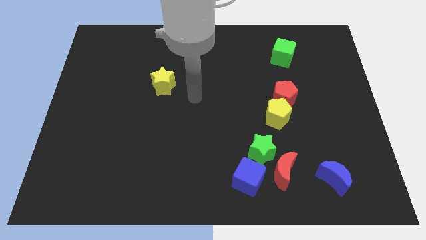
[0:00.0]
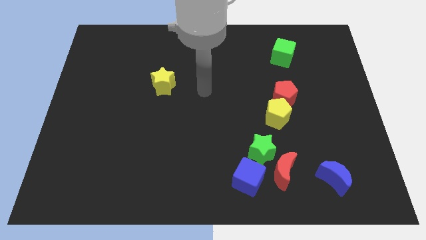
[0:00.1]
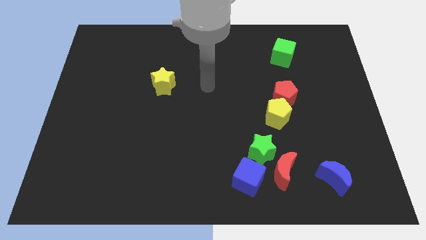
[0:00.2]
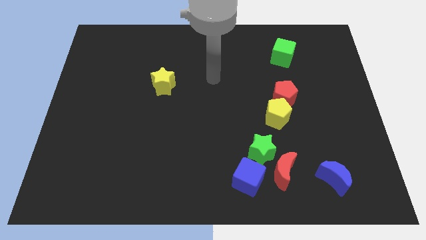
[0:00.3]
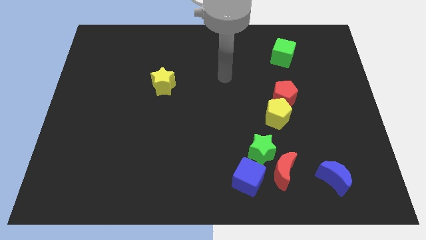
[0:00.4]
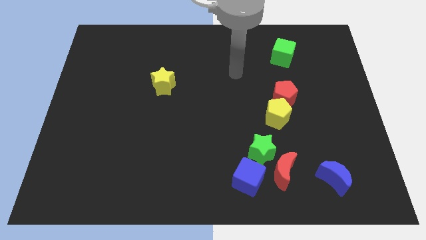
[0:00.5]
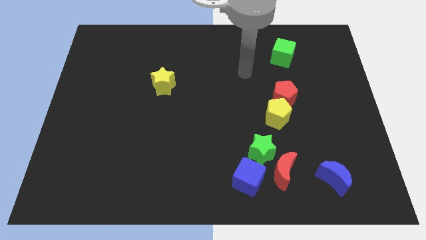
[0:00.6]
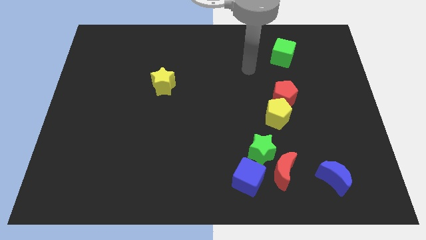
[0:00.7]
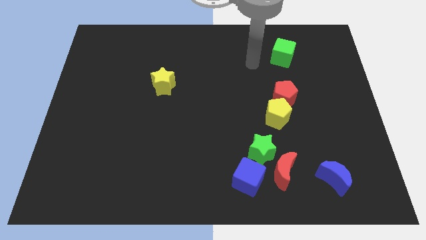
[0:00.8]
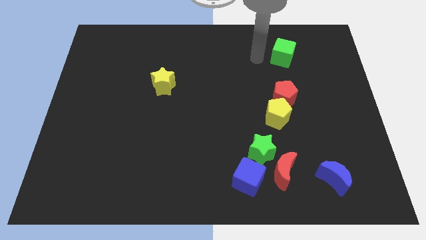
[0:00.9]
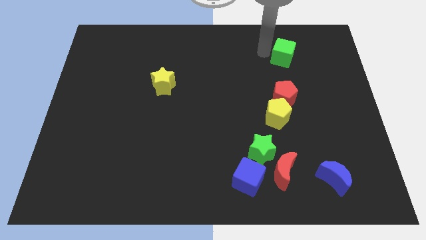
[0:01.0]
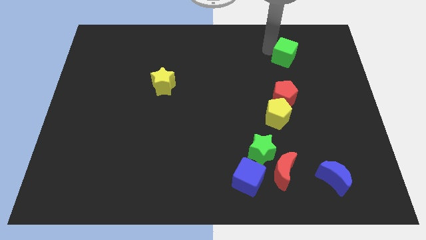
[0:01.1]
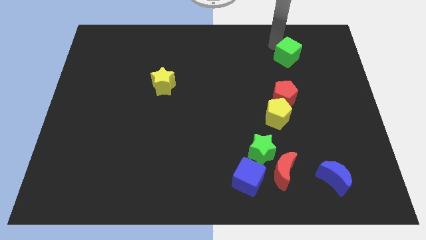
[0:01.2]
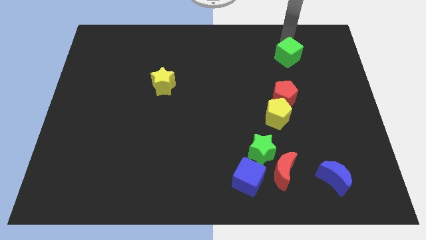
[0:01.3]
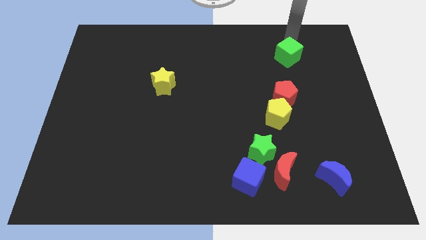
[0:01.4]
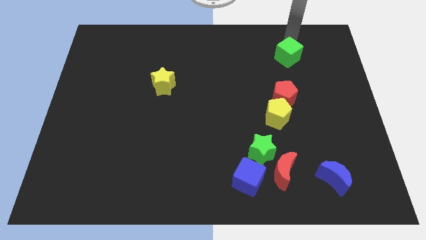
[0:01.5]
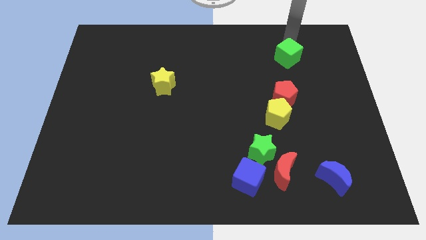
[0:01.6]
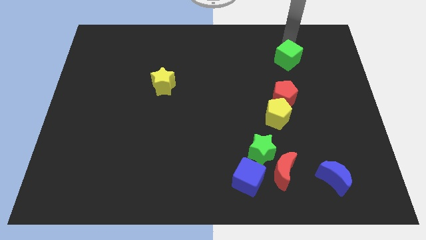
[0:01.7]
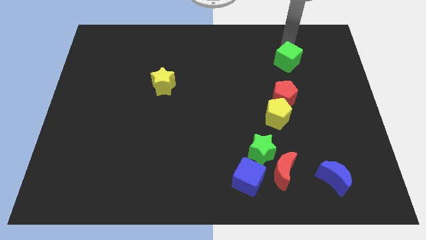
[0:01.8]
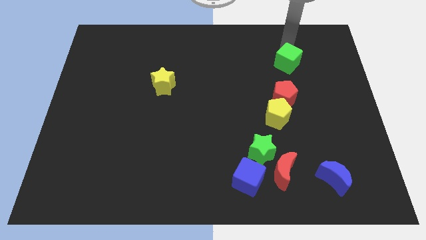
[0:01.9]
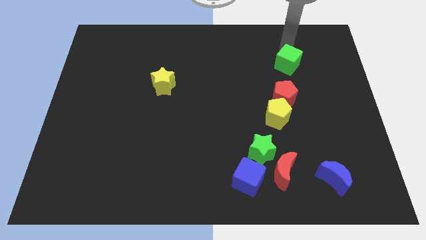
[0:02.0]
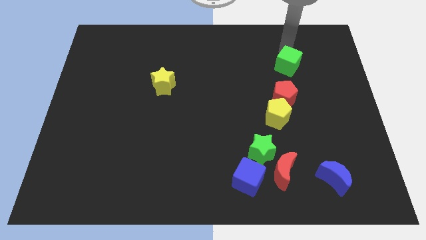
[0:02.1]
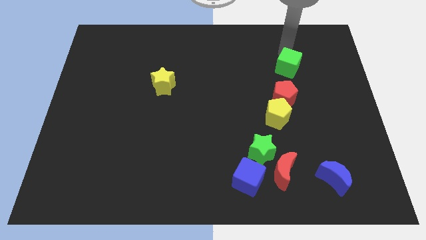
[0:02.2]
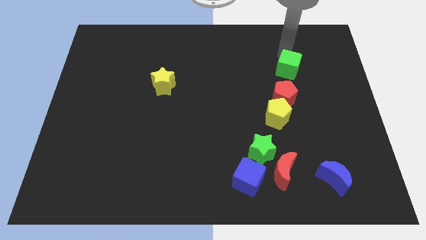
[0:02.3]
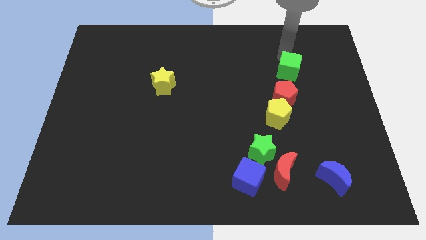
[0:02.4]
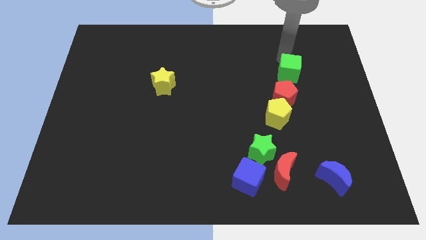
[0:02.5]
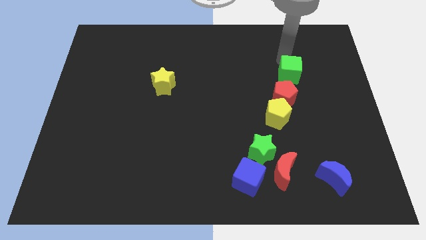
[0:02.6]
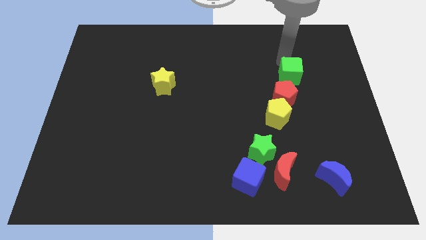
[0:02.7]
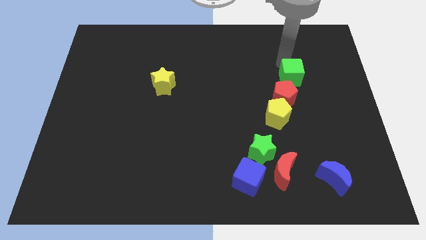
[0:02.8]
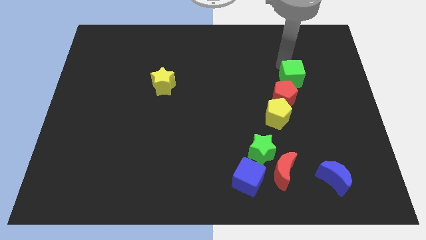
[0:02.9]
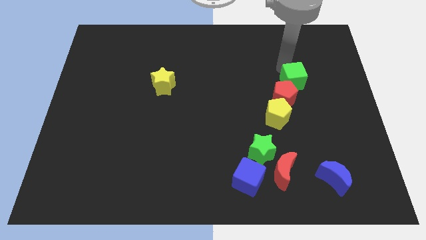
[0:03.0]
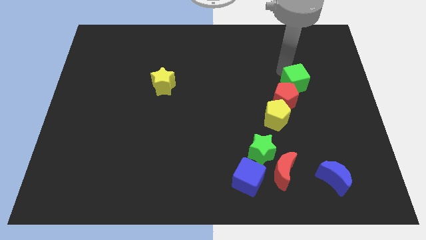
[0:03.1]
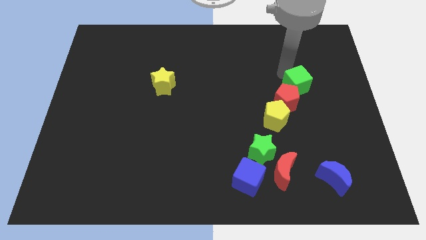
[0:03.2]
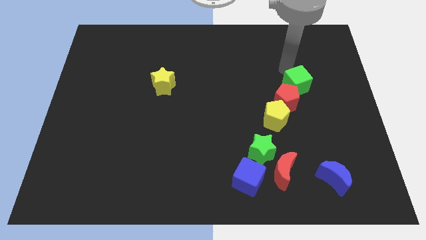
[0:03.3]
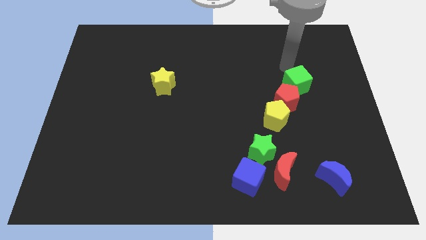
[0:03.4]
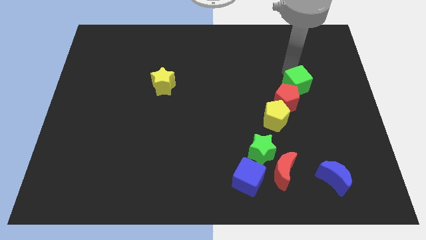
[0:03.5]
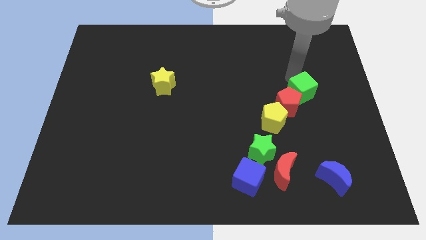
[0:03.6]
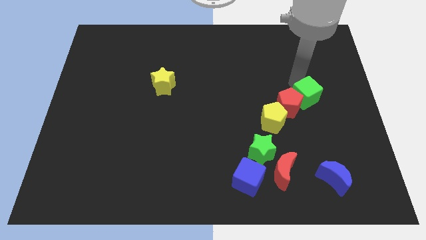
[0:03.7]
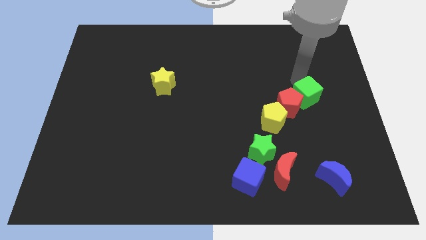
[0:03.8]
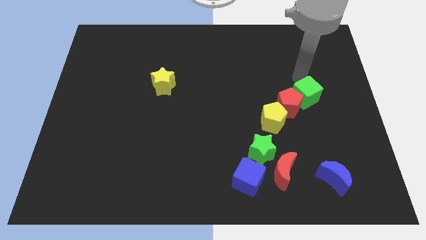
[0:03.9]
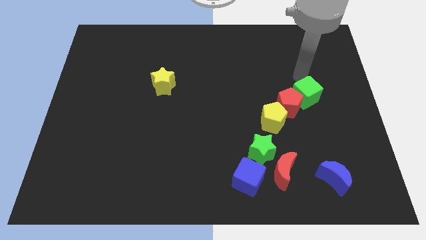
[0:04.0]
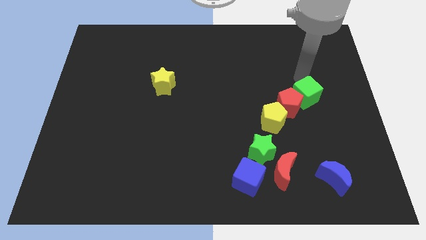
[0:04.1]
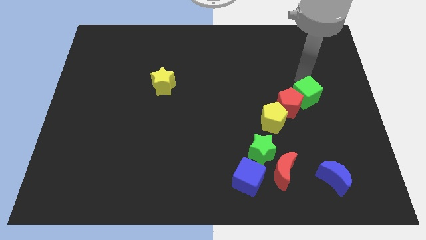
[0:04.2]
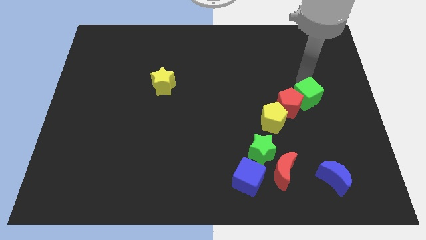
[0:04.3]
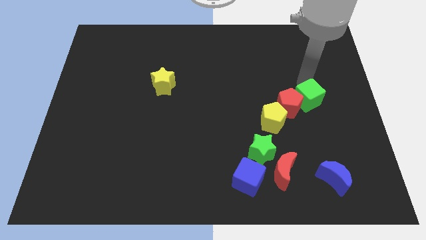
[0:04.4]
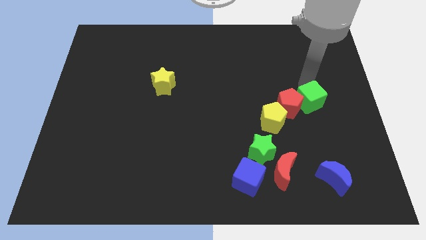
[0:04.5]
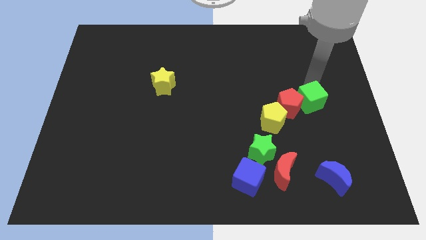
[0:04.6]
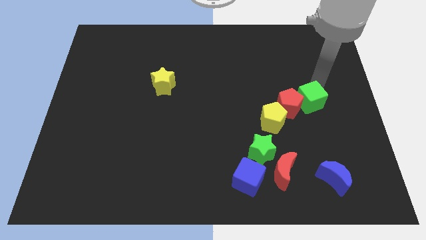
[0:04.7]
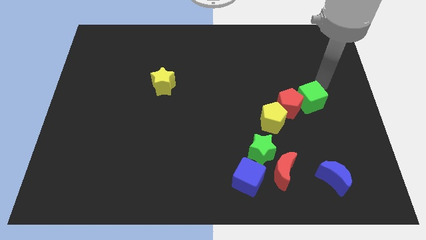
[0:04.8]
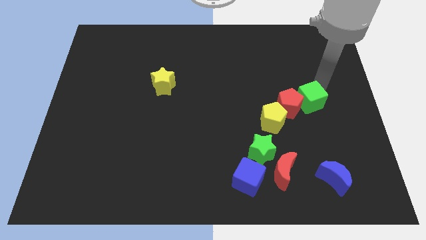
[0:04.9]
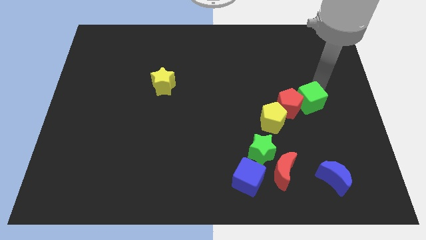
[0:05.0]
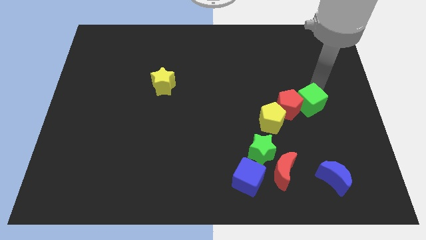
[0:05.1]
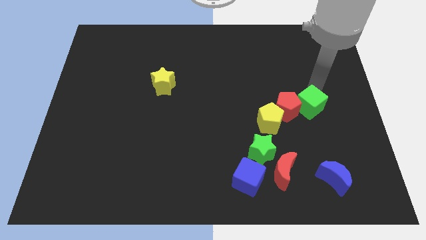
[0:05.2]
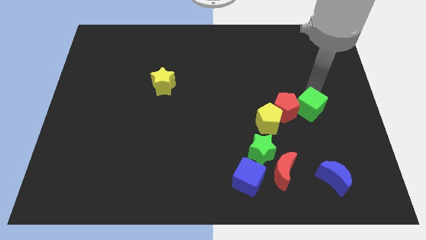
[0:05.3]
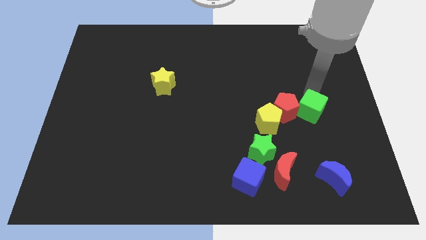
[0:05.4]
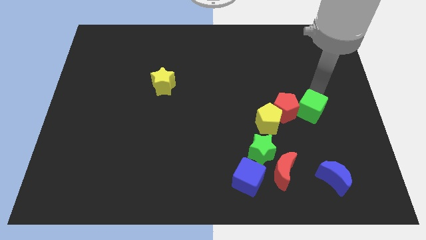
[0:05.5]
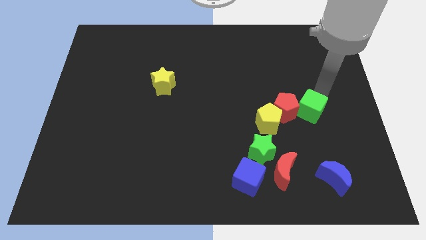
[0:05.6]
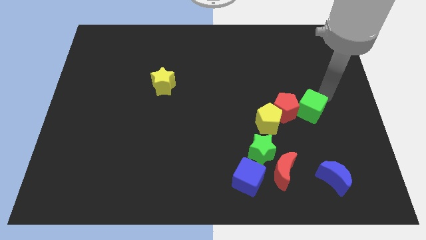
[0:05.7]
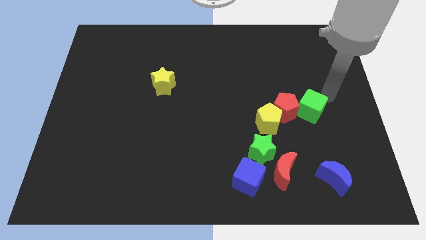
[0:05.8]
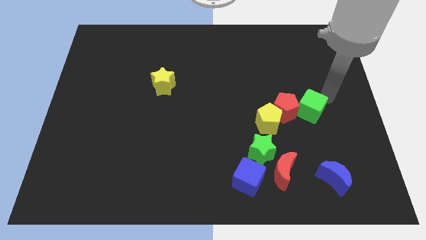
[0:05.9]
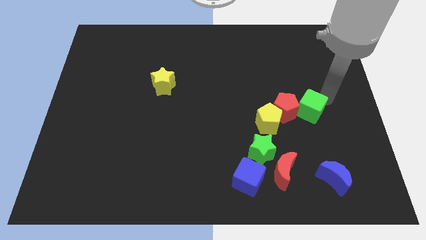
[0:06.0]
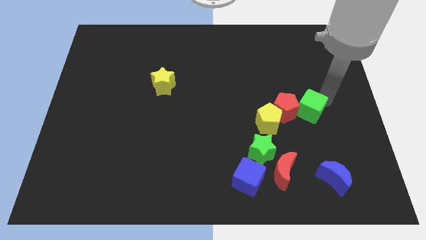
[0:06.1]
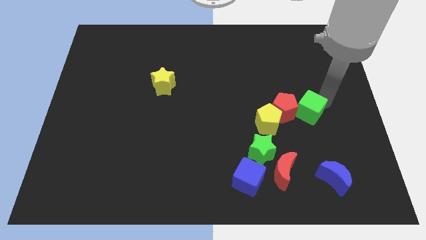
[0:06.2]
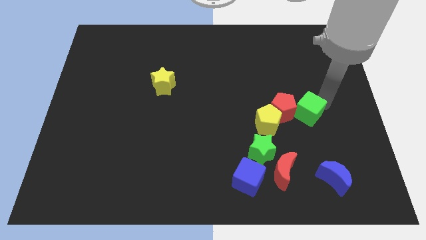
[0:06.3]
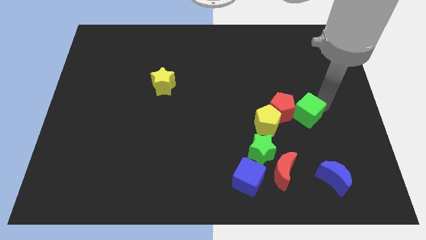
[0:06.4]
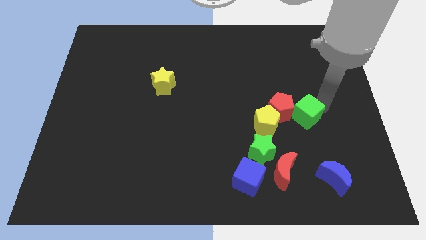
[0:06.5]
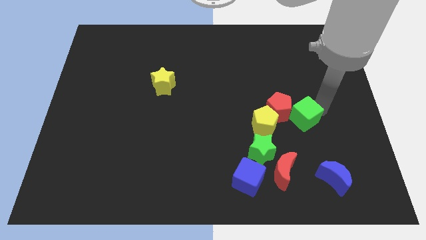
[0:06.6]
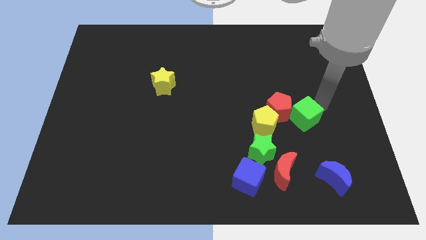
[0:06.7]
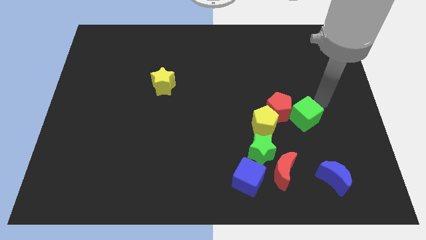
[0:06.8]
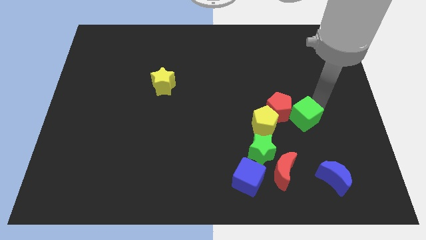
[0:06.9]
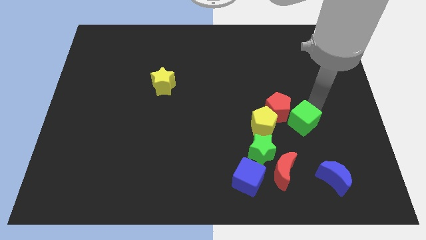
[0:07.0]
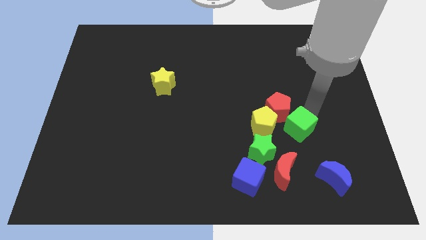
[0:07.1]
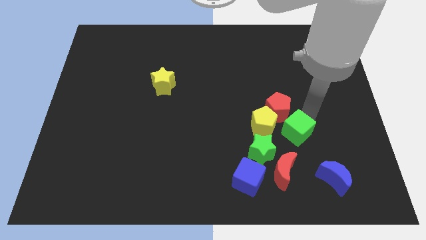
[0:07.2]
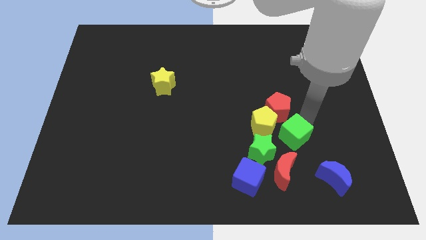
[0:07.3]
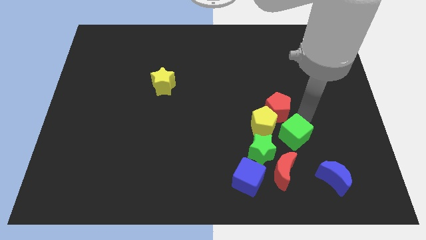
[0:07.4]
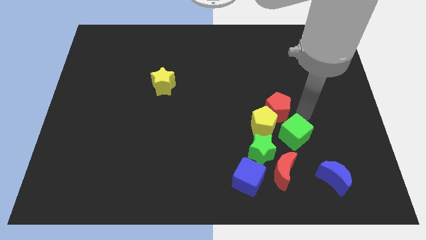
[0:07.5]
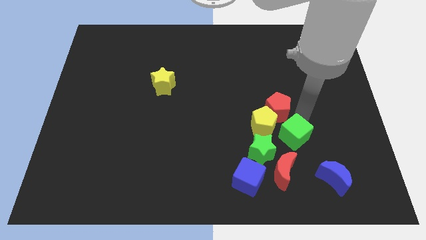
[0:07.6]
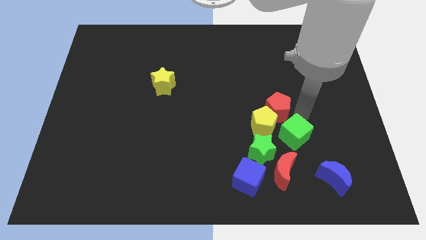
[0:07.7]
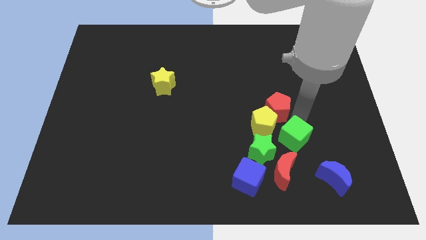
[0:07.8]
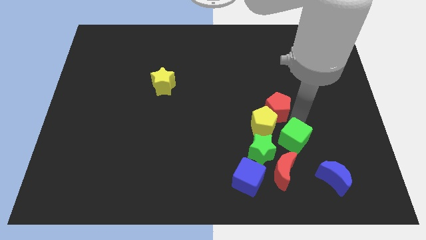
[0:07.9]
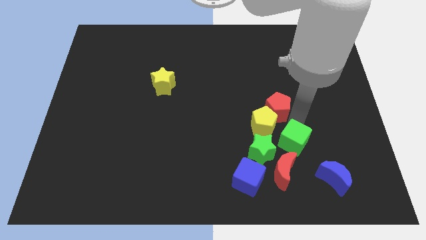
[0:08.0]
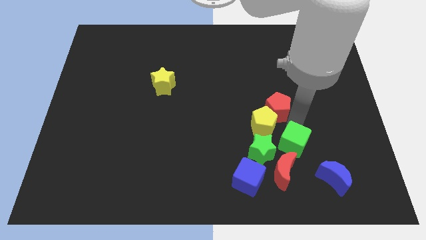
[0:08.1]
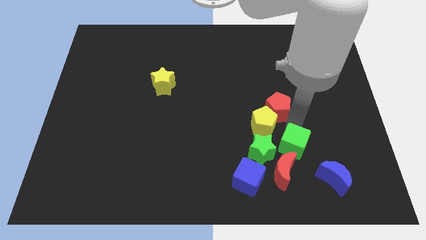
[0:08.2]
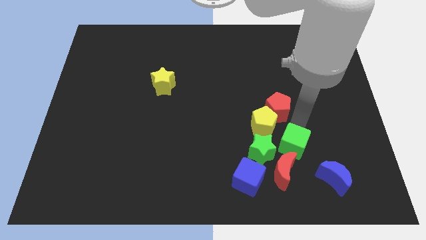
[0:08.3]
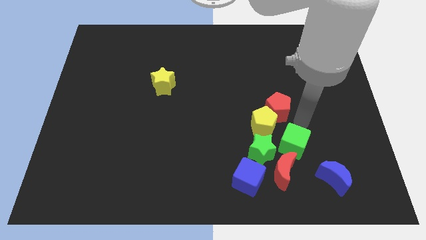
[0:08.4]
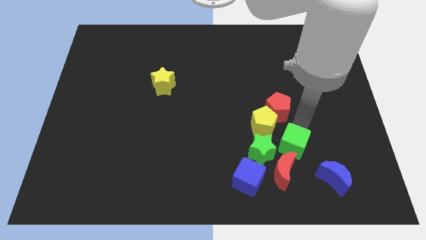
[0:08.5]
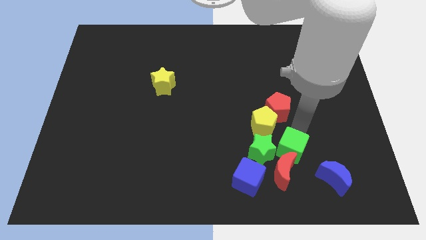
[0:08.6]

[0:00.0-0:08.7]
put the green cube next to the red moon
